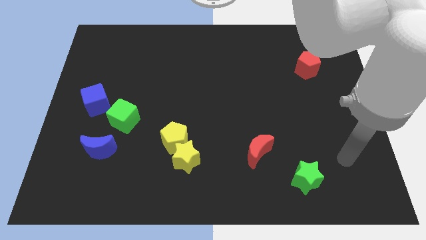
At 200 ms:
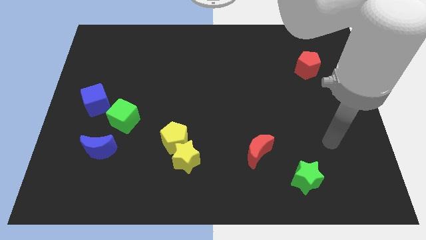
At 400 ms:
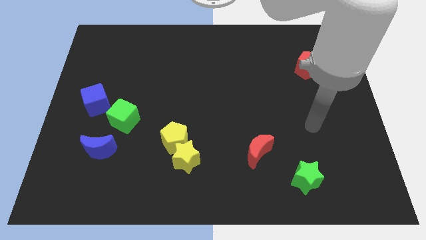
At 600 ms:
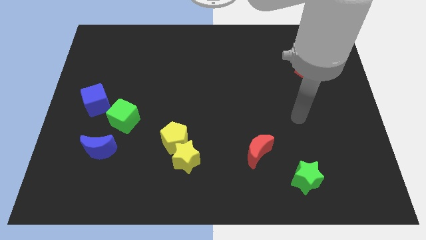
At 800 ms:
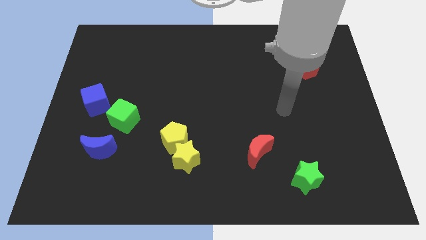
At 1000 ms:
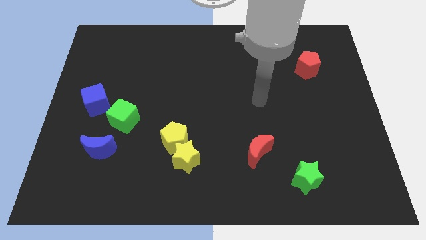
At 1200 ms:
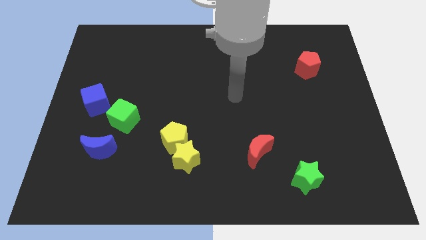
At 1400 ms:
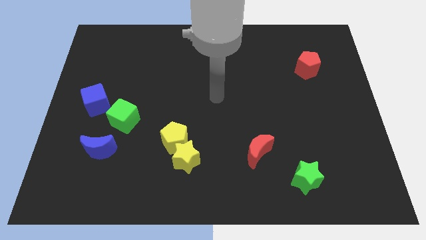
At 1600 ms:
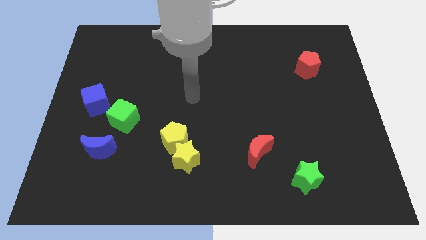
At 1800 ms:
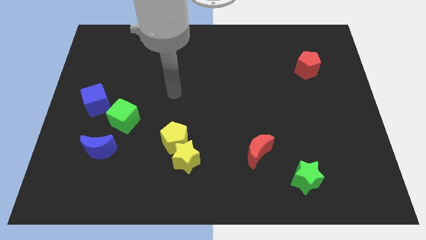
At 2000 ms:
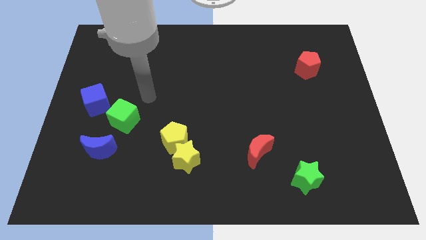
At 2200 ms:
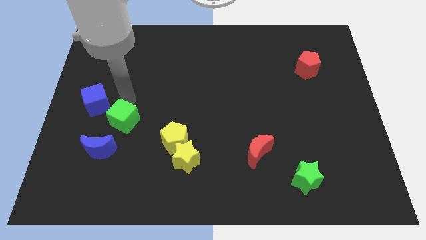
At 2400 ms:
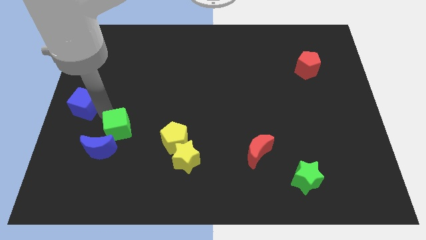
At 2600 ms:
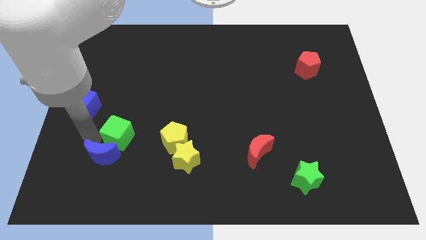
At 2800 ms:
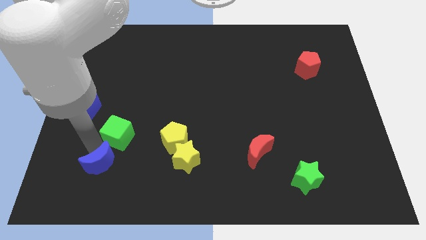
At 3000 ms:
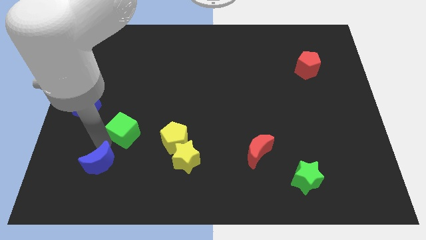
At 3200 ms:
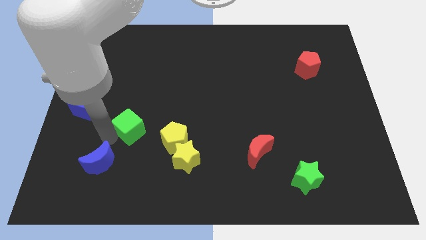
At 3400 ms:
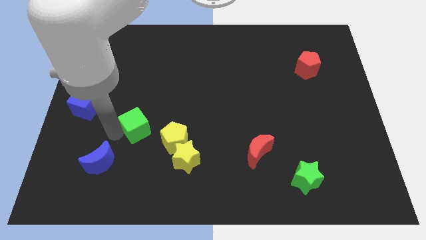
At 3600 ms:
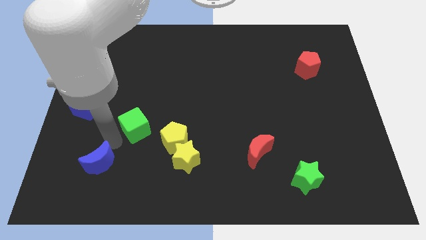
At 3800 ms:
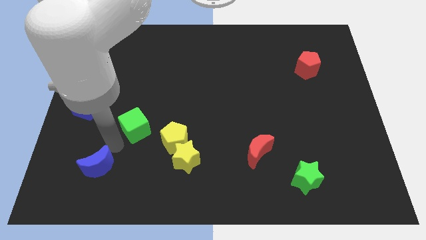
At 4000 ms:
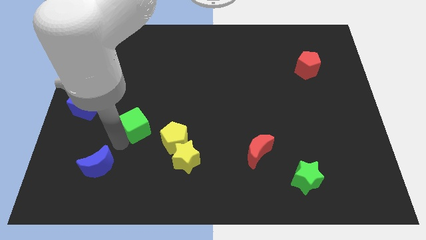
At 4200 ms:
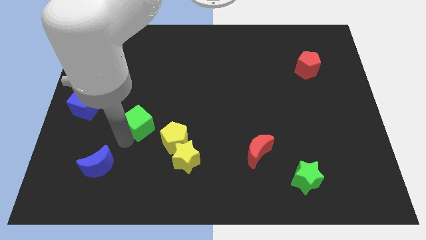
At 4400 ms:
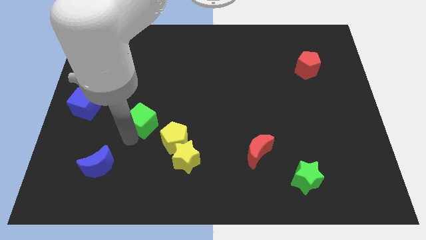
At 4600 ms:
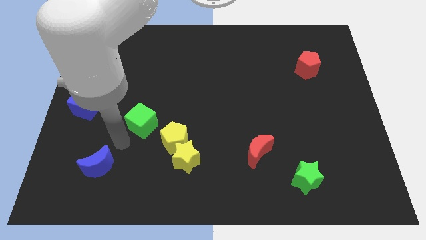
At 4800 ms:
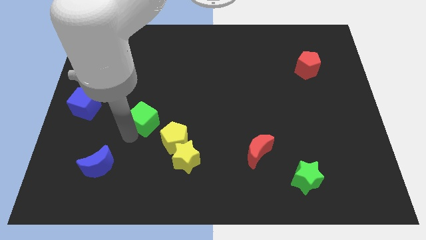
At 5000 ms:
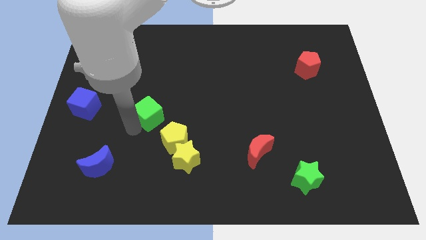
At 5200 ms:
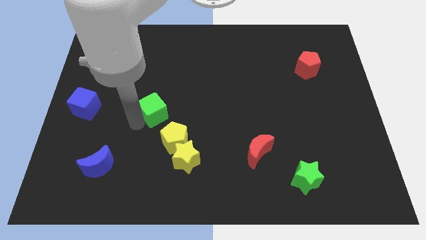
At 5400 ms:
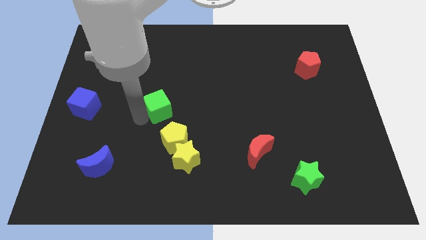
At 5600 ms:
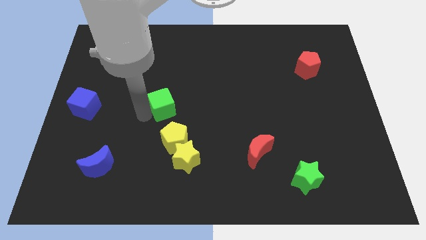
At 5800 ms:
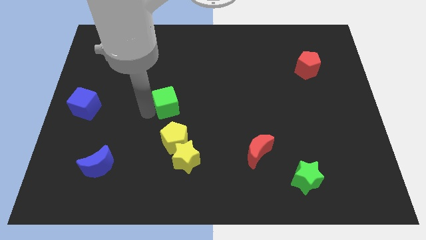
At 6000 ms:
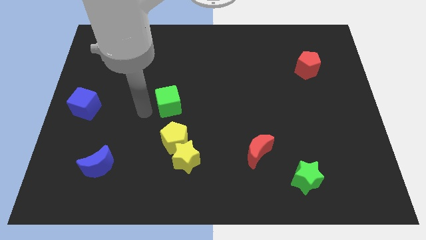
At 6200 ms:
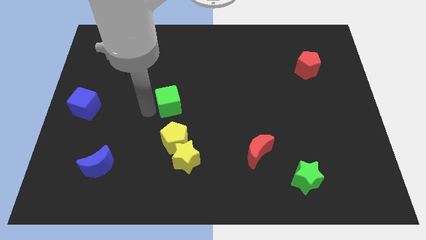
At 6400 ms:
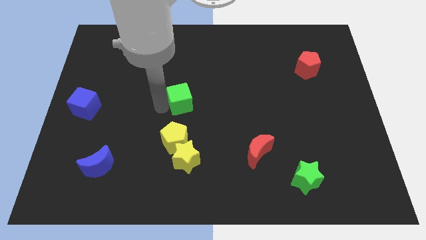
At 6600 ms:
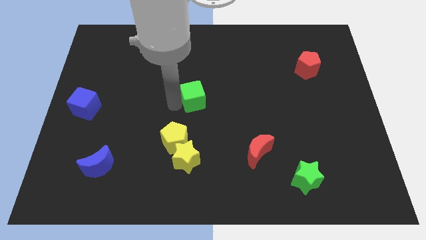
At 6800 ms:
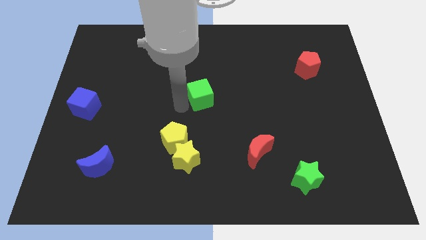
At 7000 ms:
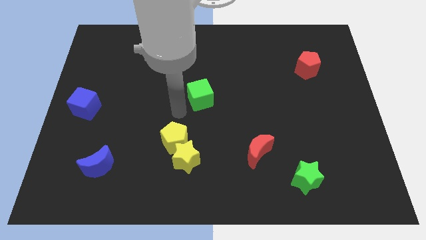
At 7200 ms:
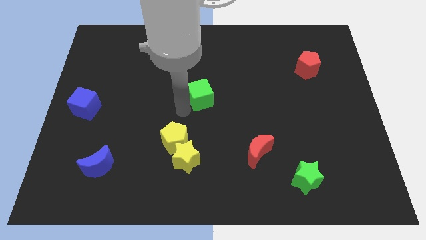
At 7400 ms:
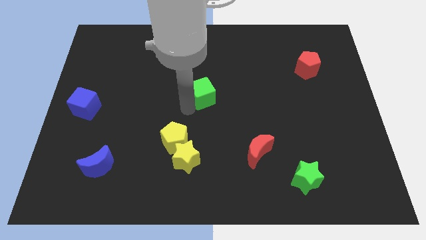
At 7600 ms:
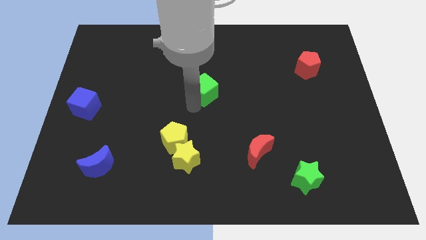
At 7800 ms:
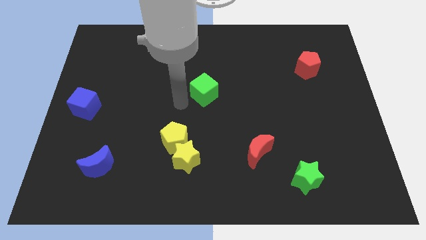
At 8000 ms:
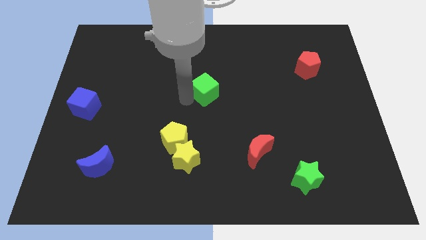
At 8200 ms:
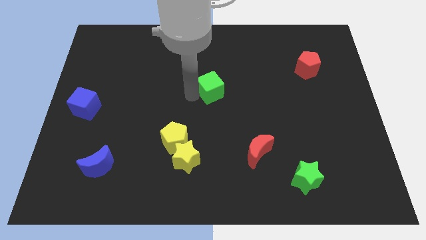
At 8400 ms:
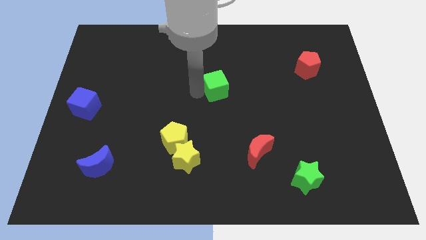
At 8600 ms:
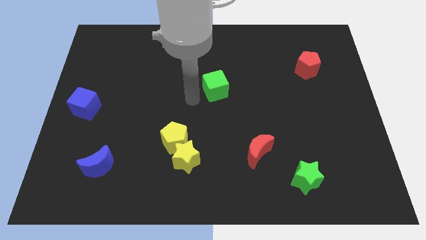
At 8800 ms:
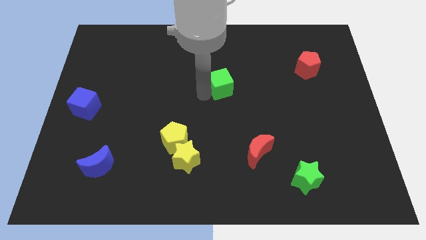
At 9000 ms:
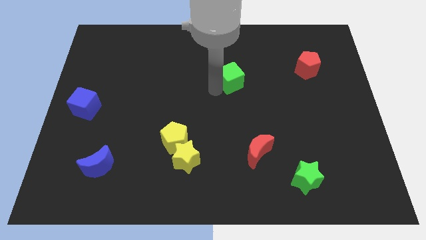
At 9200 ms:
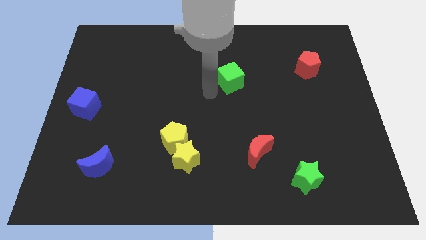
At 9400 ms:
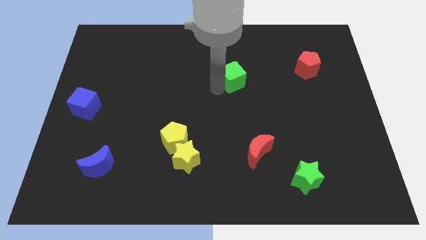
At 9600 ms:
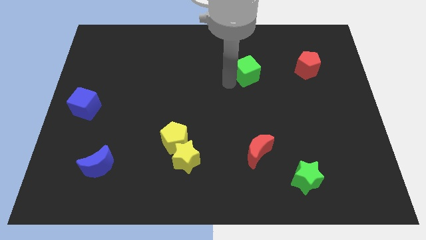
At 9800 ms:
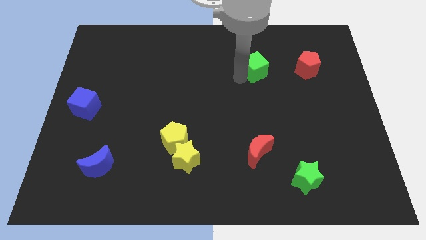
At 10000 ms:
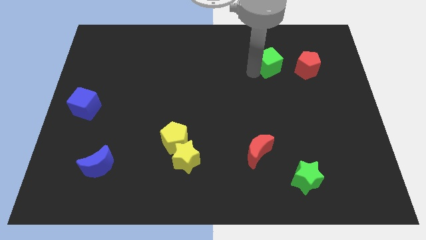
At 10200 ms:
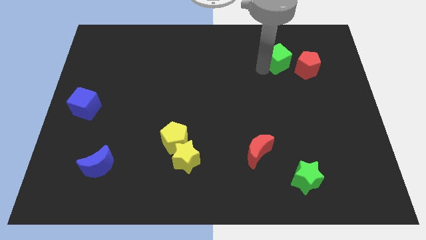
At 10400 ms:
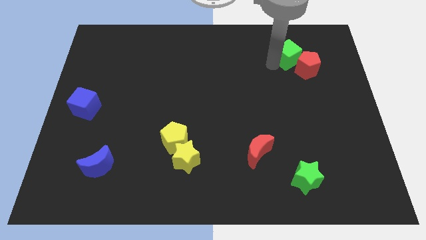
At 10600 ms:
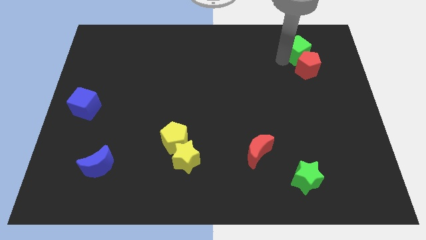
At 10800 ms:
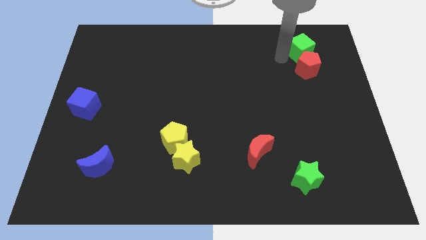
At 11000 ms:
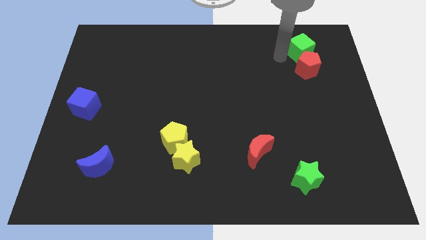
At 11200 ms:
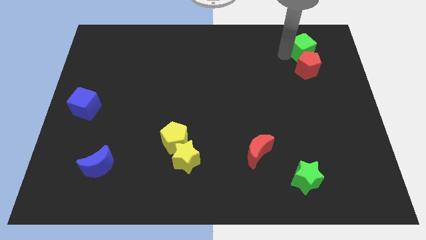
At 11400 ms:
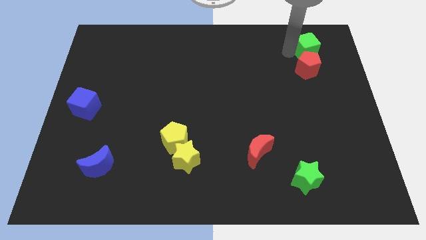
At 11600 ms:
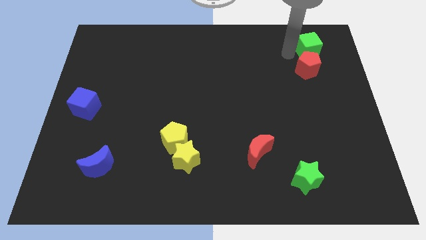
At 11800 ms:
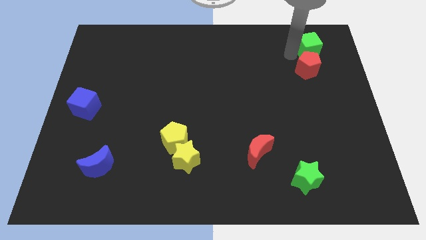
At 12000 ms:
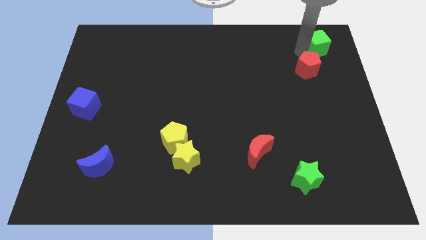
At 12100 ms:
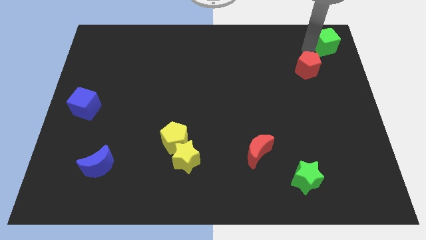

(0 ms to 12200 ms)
move the green cube to the top right
